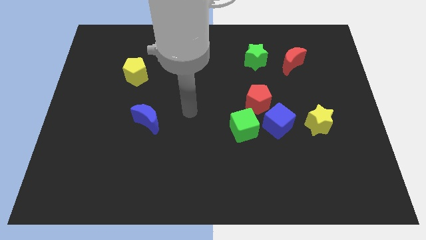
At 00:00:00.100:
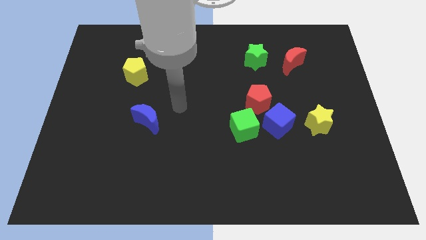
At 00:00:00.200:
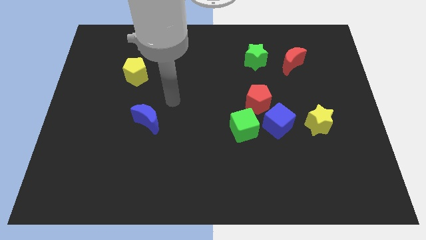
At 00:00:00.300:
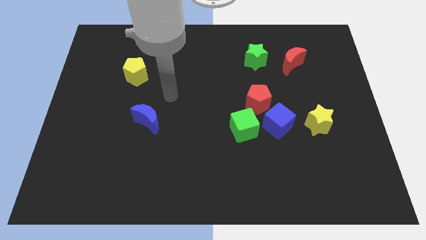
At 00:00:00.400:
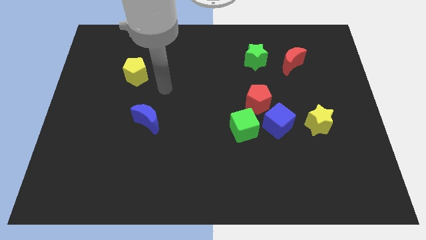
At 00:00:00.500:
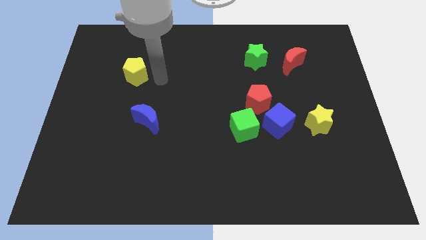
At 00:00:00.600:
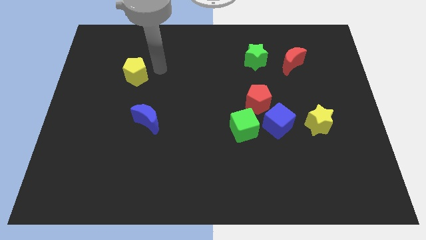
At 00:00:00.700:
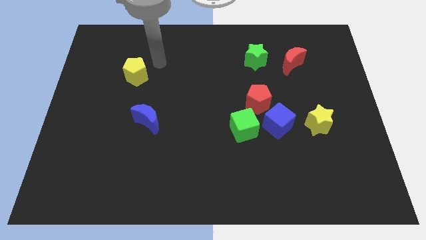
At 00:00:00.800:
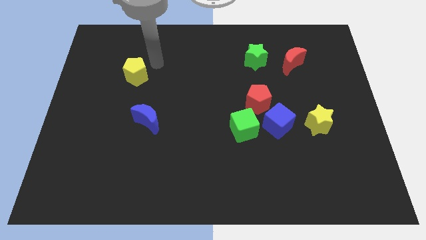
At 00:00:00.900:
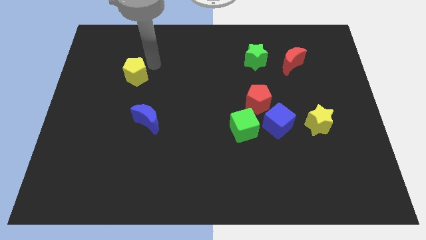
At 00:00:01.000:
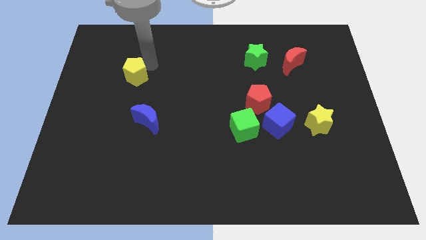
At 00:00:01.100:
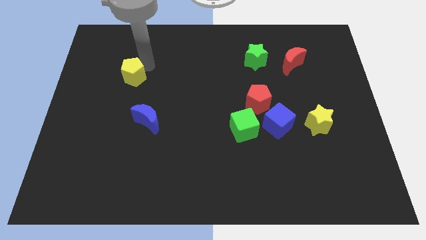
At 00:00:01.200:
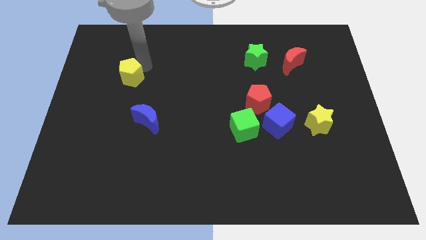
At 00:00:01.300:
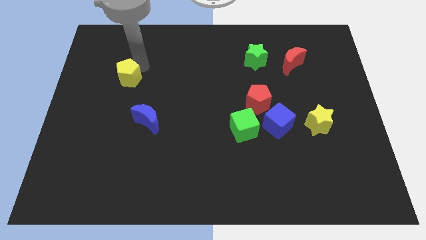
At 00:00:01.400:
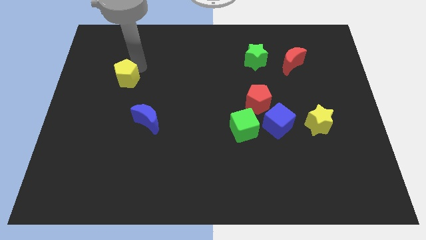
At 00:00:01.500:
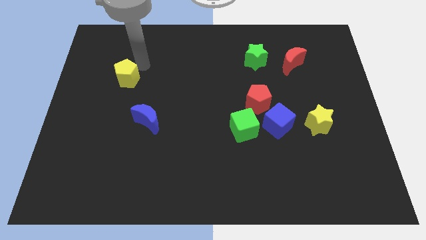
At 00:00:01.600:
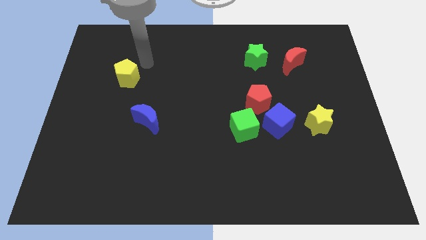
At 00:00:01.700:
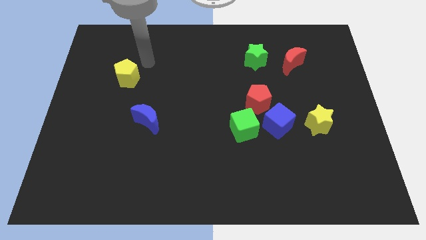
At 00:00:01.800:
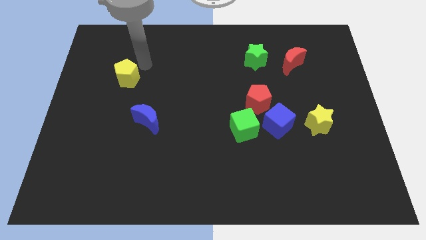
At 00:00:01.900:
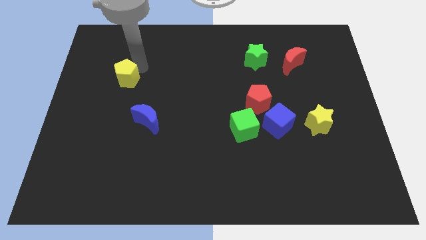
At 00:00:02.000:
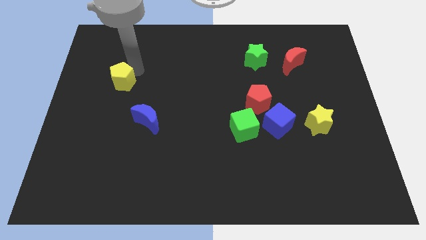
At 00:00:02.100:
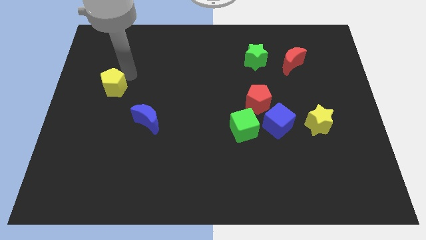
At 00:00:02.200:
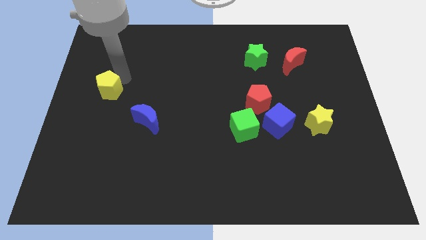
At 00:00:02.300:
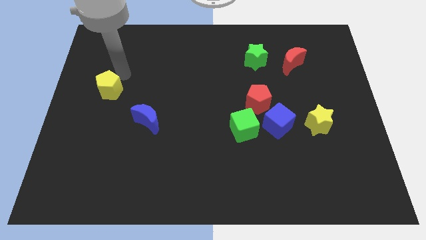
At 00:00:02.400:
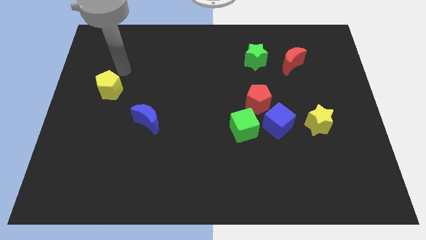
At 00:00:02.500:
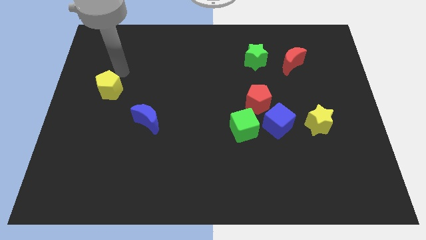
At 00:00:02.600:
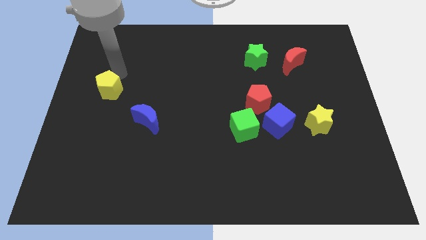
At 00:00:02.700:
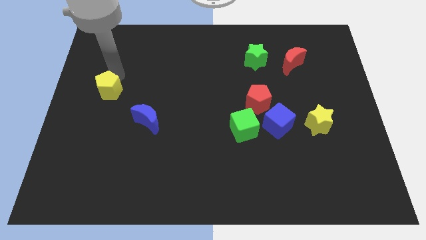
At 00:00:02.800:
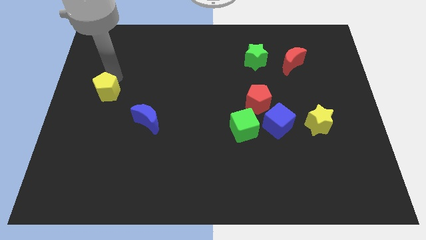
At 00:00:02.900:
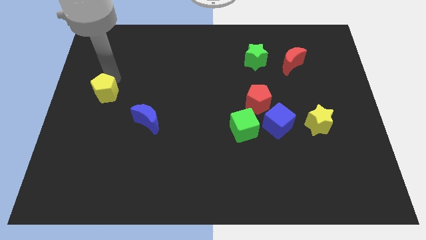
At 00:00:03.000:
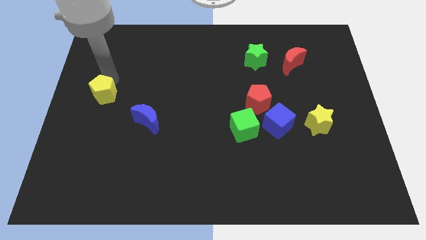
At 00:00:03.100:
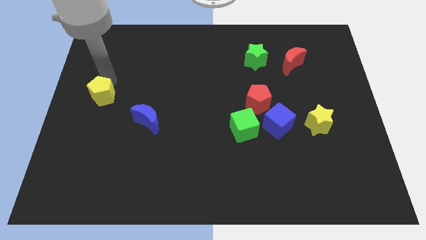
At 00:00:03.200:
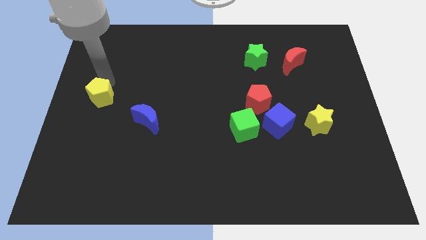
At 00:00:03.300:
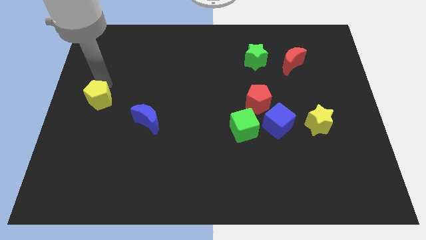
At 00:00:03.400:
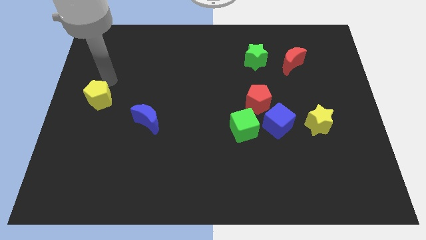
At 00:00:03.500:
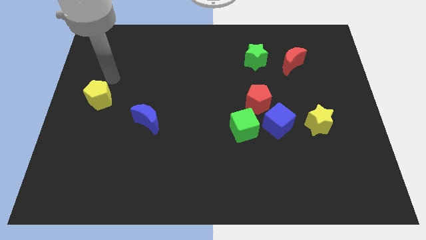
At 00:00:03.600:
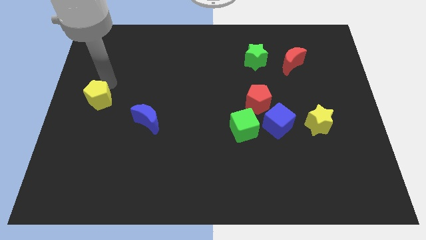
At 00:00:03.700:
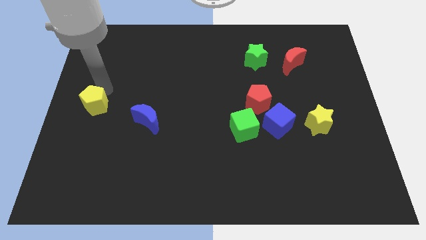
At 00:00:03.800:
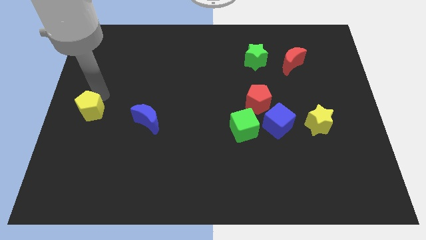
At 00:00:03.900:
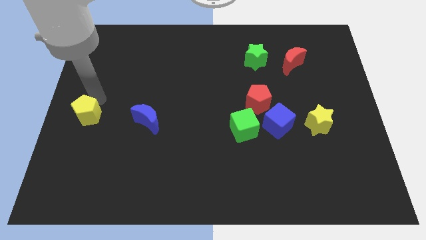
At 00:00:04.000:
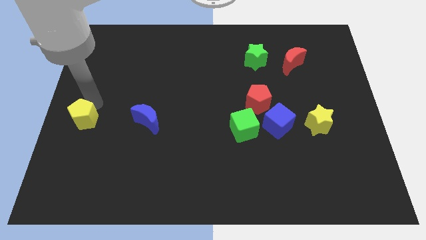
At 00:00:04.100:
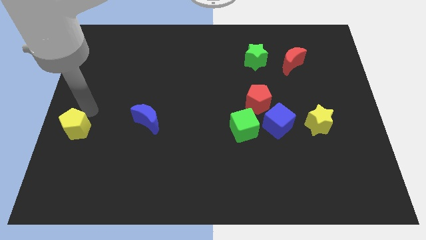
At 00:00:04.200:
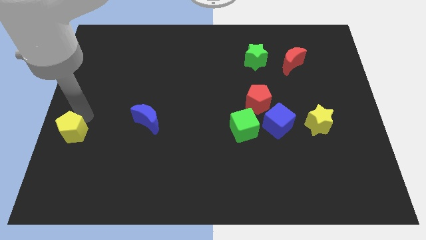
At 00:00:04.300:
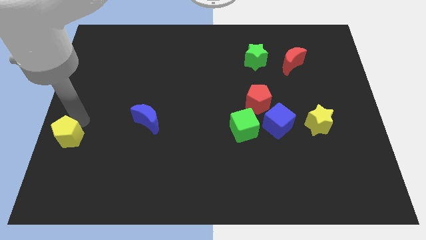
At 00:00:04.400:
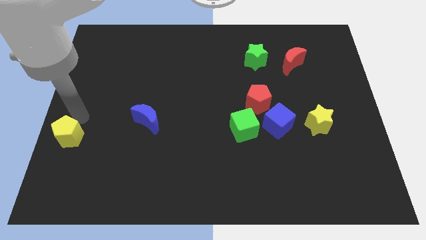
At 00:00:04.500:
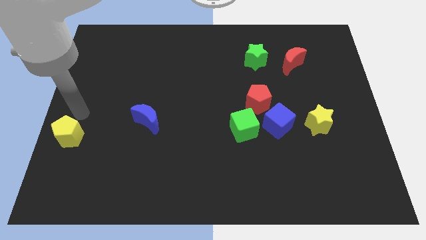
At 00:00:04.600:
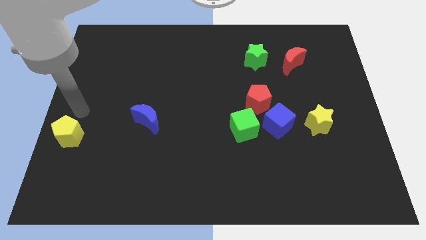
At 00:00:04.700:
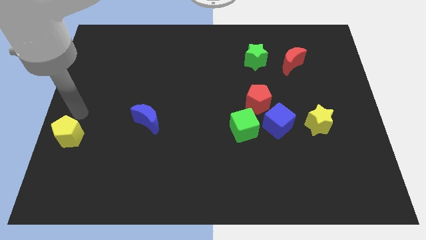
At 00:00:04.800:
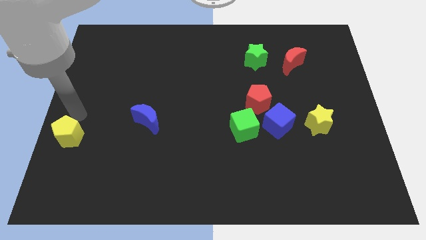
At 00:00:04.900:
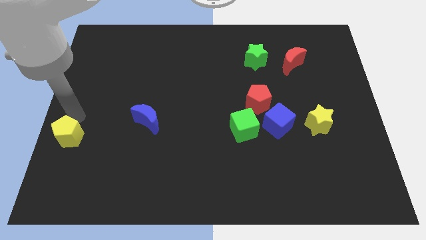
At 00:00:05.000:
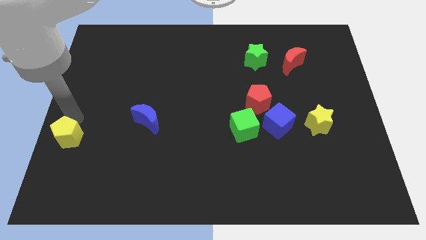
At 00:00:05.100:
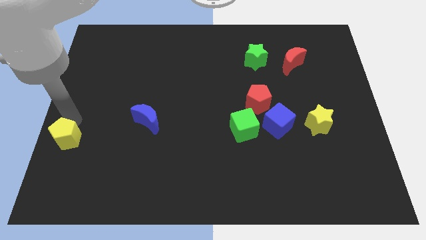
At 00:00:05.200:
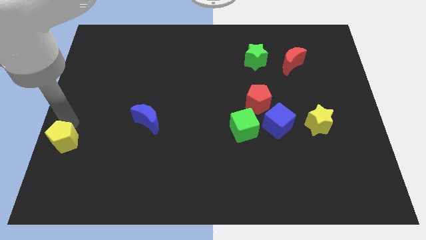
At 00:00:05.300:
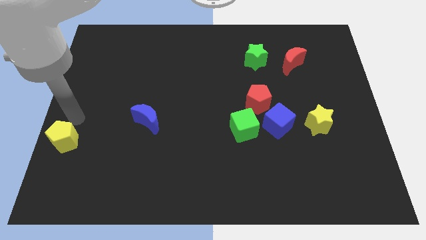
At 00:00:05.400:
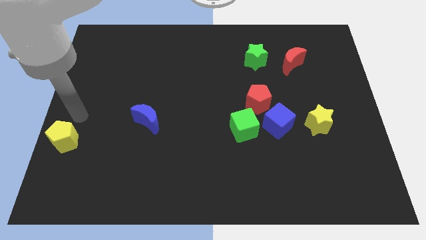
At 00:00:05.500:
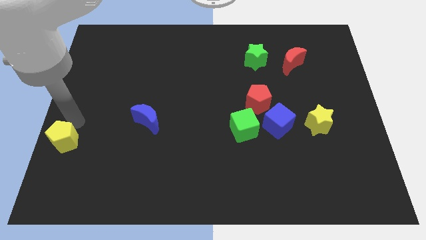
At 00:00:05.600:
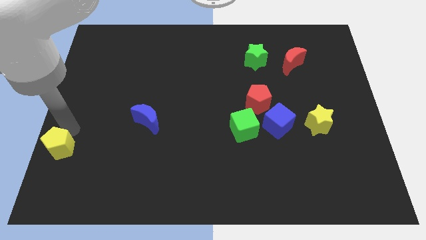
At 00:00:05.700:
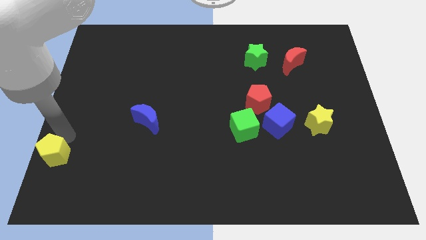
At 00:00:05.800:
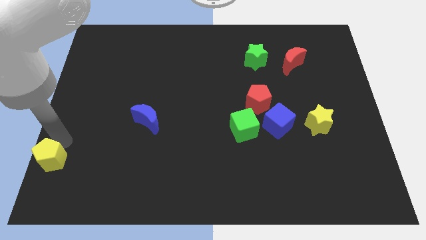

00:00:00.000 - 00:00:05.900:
put the yellow pentagon to the bottom left

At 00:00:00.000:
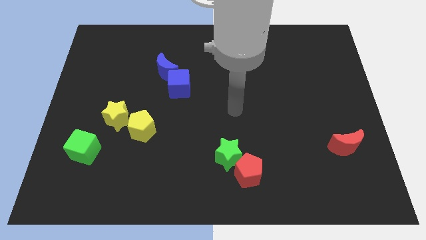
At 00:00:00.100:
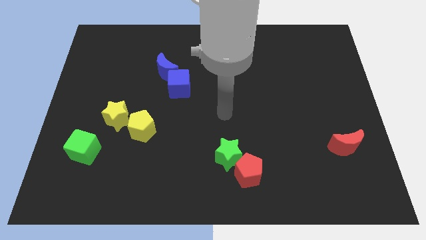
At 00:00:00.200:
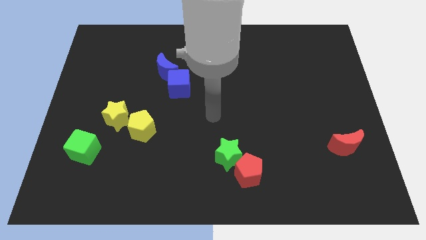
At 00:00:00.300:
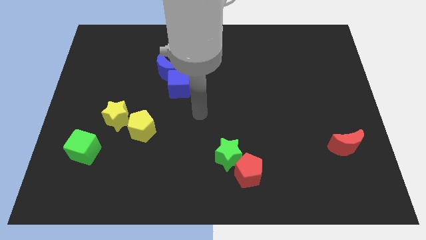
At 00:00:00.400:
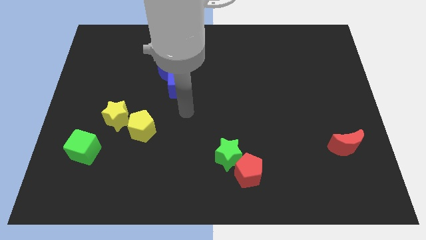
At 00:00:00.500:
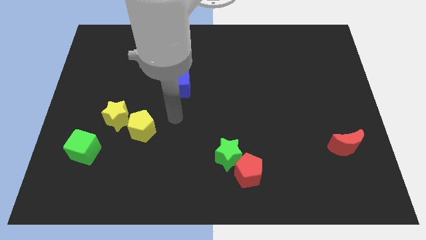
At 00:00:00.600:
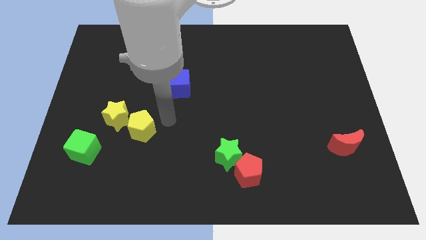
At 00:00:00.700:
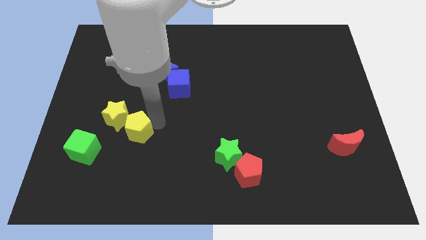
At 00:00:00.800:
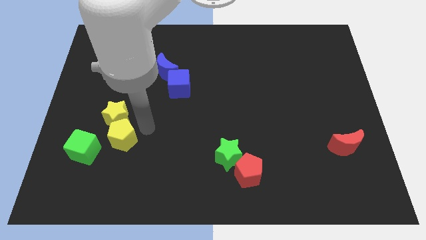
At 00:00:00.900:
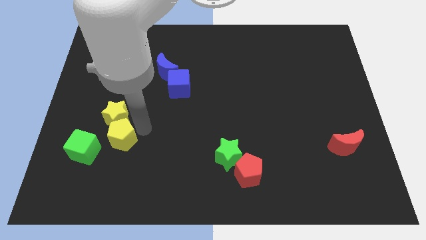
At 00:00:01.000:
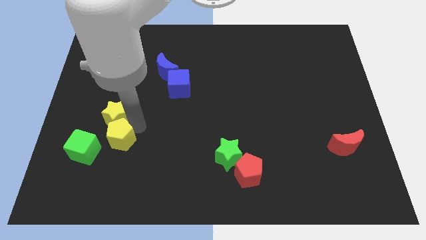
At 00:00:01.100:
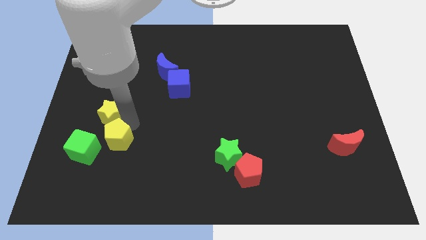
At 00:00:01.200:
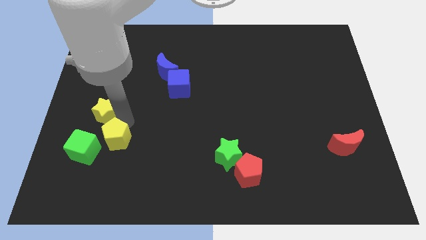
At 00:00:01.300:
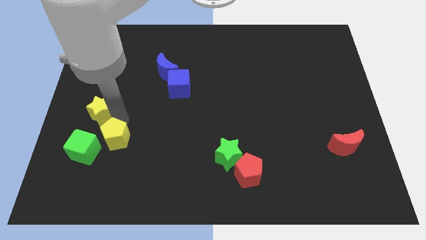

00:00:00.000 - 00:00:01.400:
push the yellow star to the left side of the board

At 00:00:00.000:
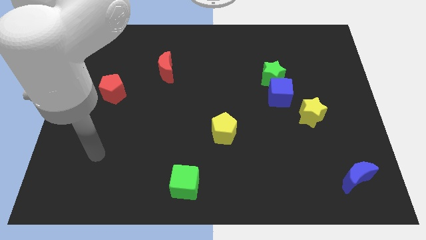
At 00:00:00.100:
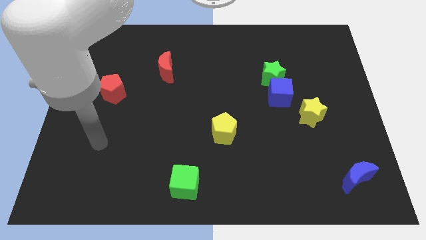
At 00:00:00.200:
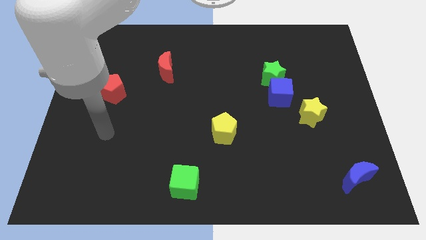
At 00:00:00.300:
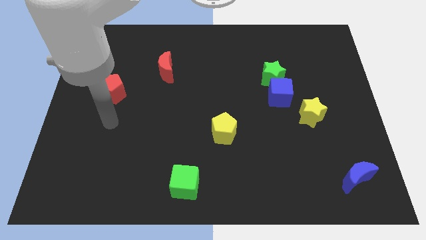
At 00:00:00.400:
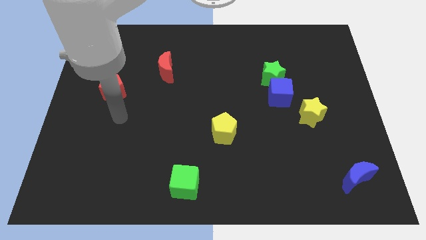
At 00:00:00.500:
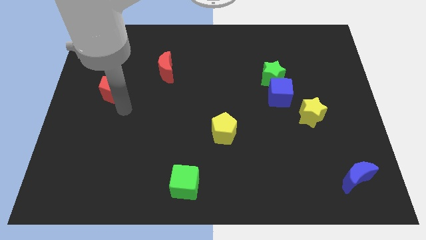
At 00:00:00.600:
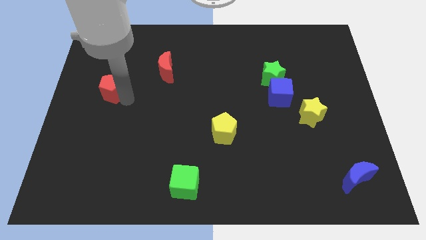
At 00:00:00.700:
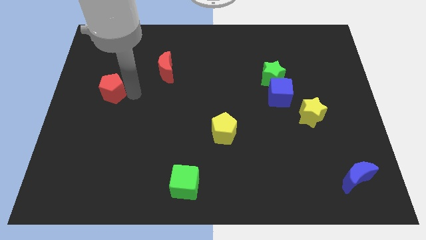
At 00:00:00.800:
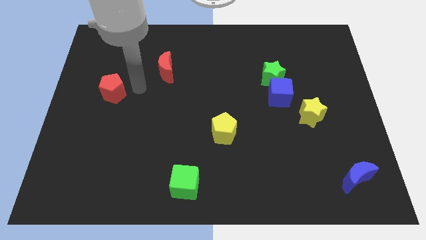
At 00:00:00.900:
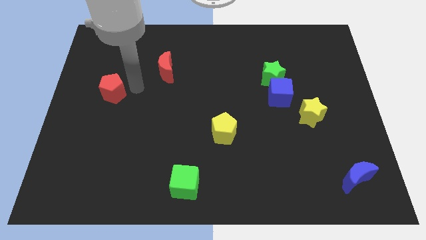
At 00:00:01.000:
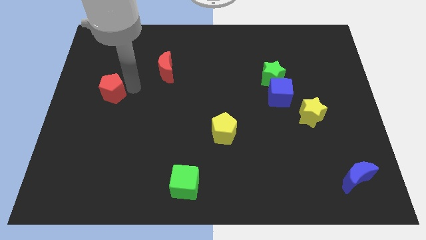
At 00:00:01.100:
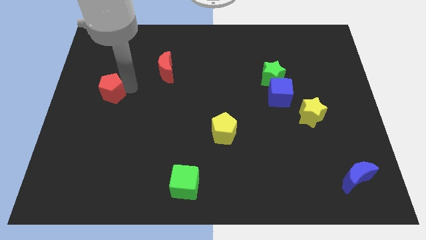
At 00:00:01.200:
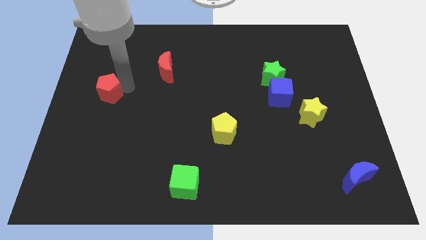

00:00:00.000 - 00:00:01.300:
slide the red pentagon to the left side
